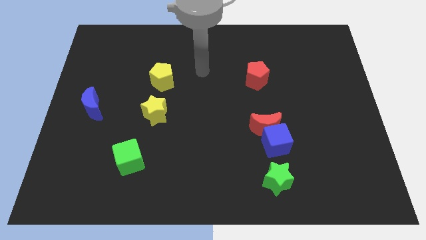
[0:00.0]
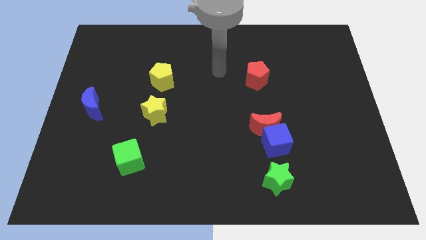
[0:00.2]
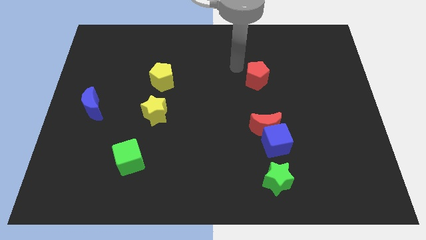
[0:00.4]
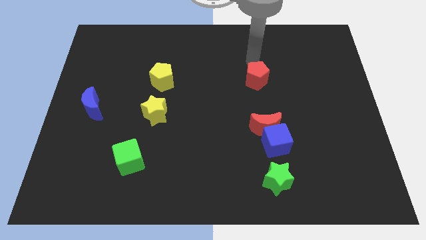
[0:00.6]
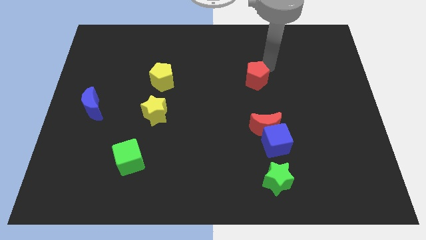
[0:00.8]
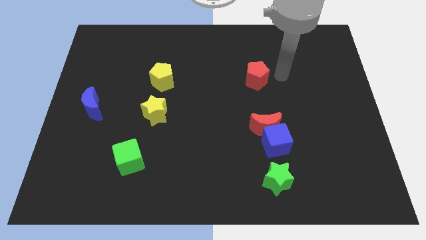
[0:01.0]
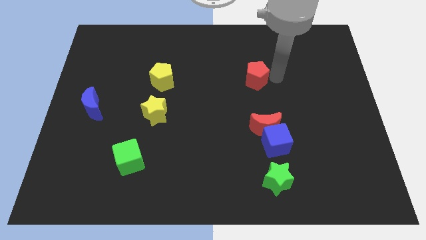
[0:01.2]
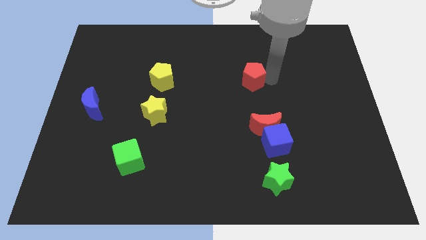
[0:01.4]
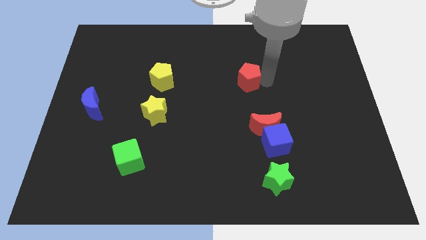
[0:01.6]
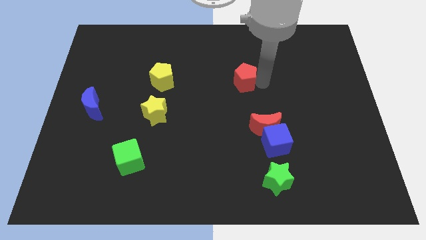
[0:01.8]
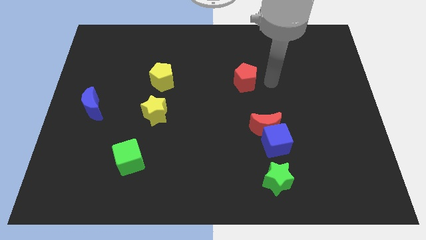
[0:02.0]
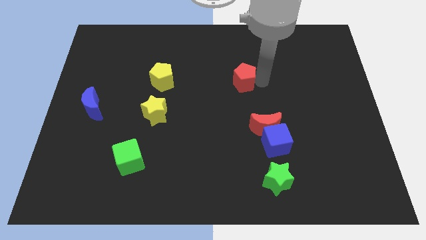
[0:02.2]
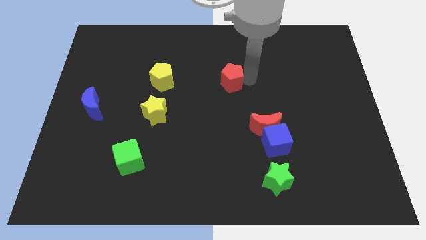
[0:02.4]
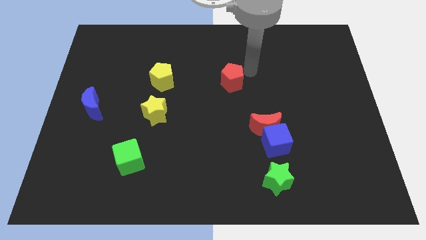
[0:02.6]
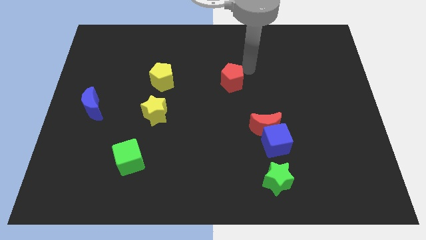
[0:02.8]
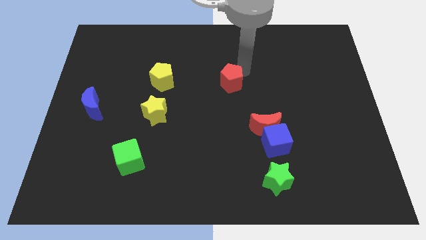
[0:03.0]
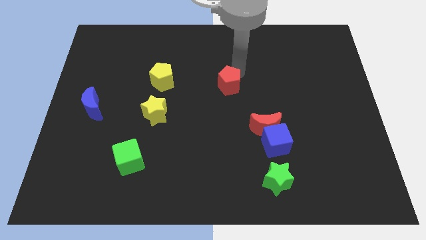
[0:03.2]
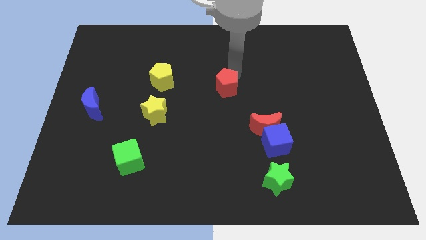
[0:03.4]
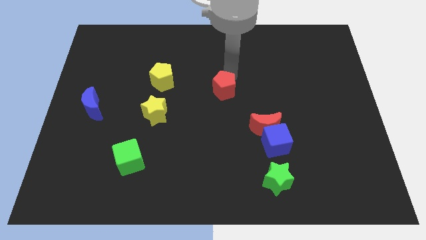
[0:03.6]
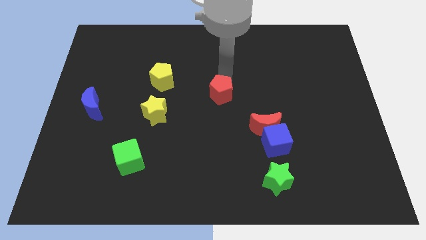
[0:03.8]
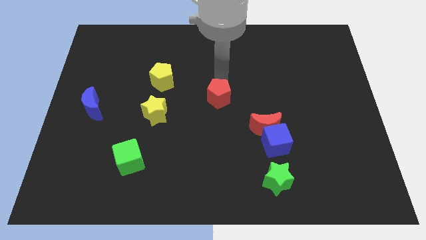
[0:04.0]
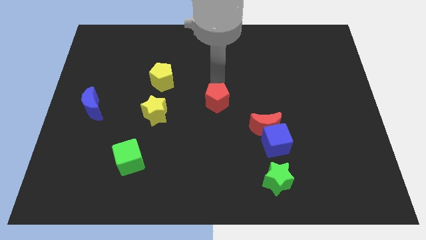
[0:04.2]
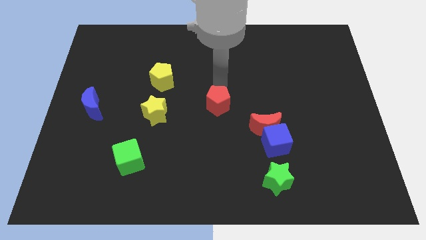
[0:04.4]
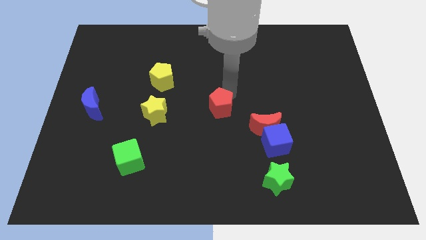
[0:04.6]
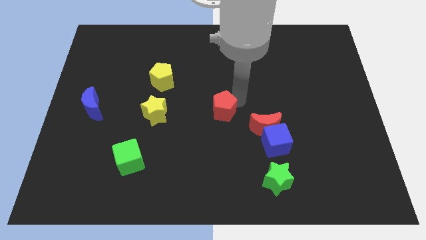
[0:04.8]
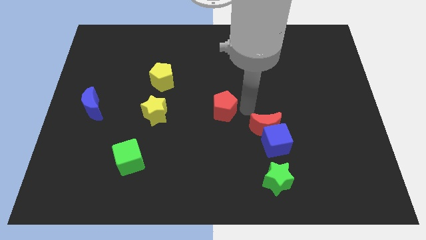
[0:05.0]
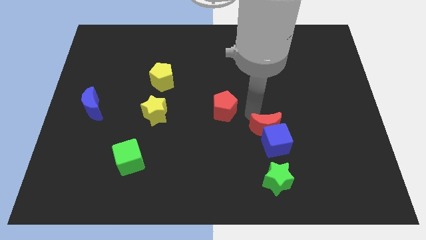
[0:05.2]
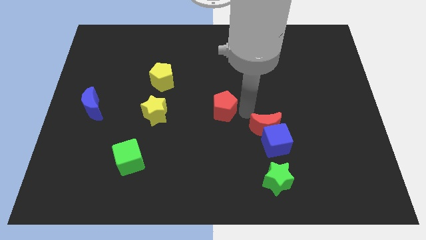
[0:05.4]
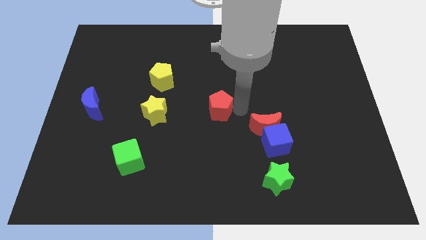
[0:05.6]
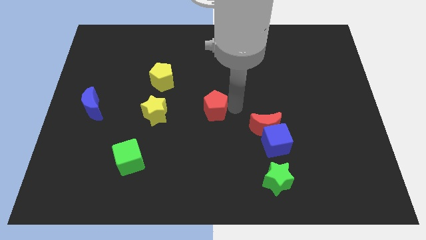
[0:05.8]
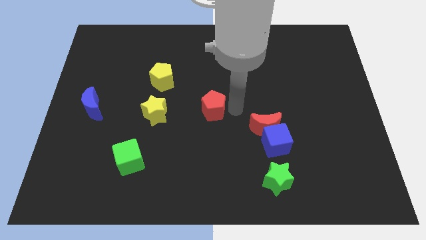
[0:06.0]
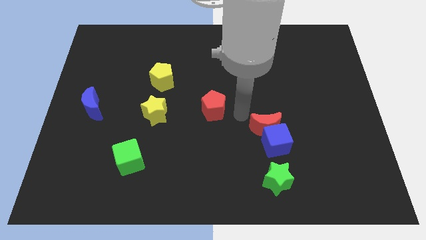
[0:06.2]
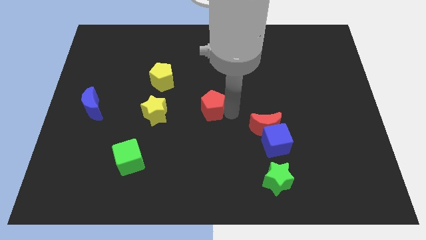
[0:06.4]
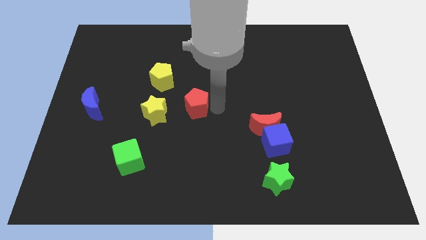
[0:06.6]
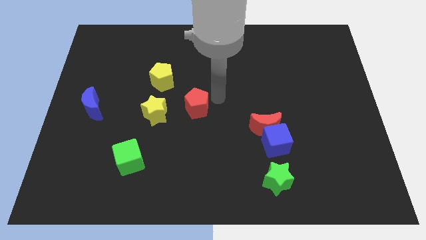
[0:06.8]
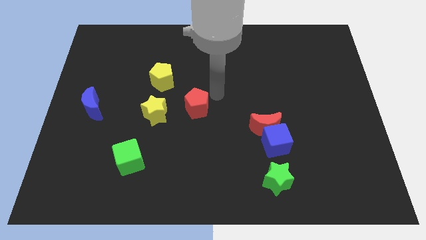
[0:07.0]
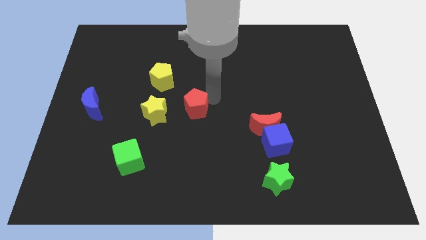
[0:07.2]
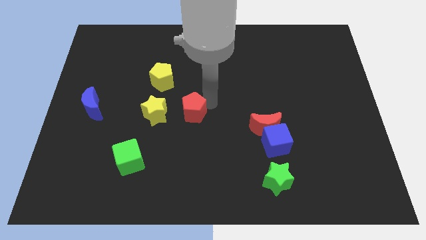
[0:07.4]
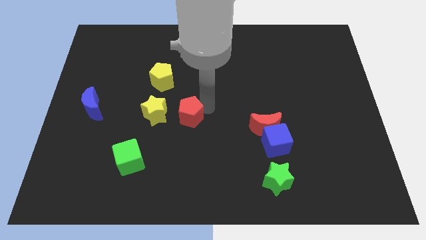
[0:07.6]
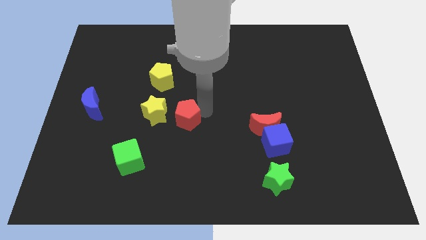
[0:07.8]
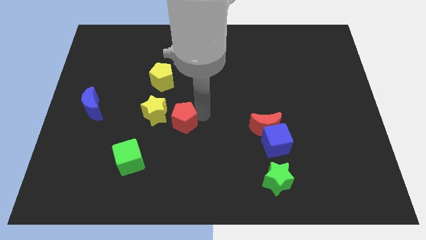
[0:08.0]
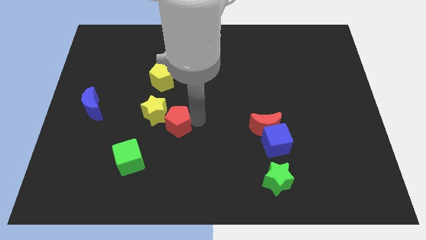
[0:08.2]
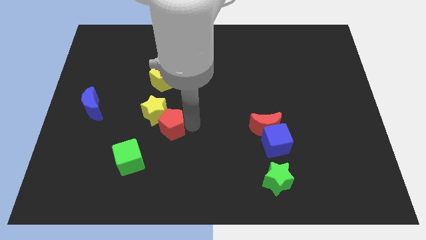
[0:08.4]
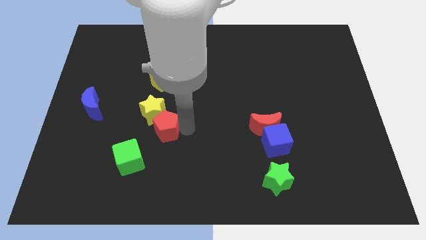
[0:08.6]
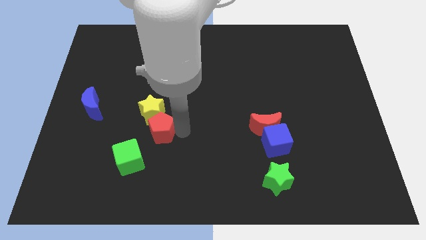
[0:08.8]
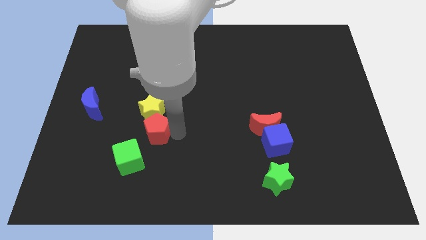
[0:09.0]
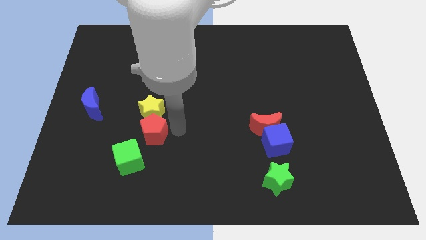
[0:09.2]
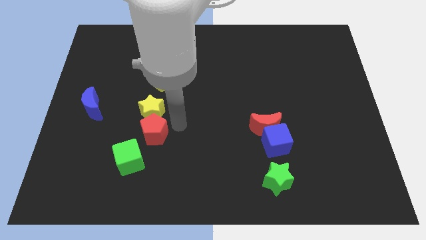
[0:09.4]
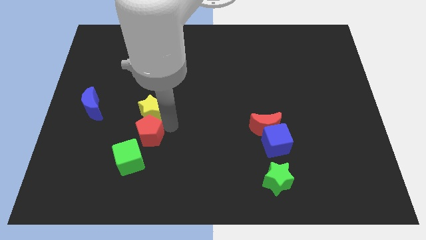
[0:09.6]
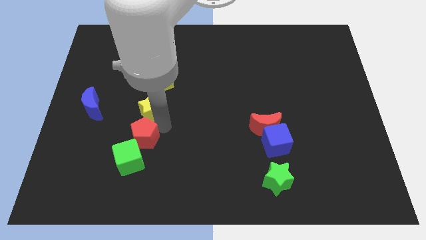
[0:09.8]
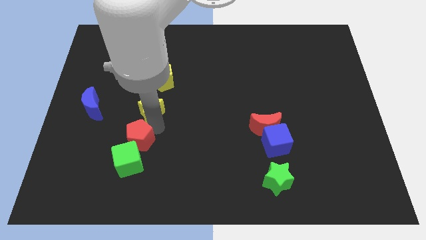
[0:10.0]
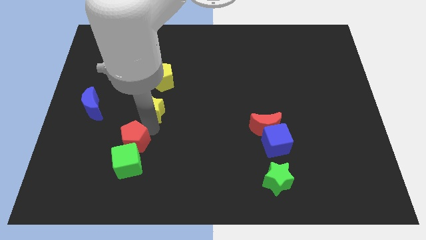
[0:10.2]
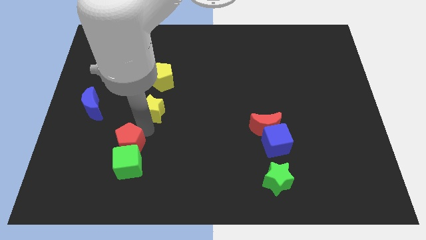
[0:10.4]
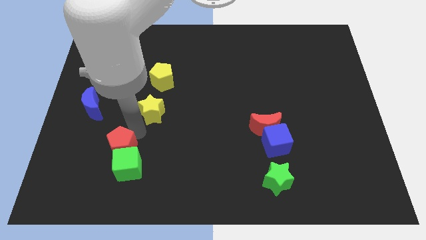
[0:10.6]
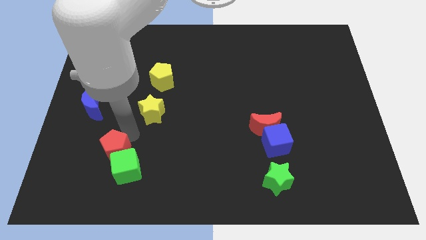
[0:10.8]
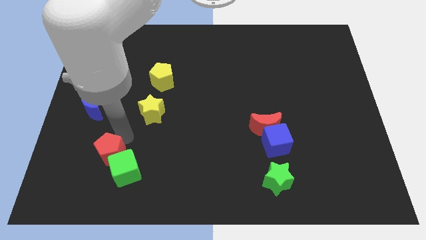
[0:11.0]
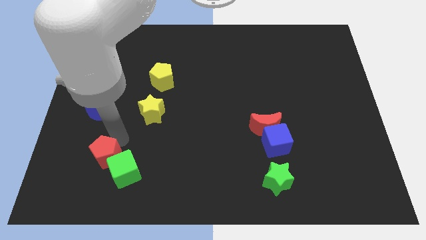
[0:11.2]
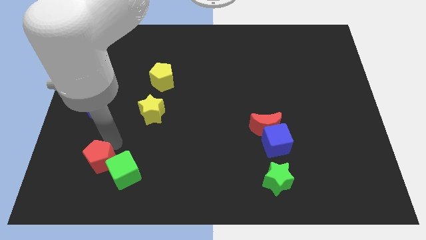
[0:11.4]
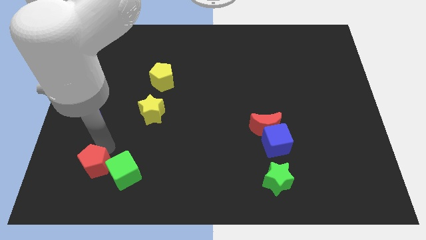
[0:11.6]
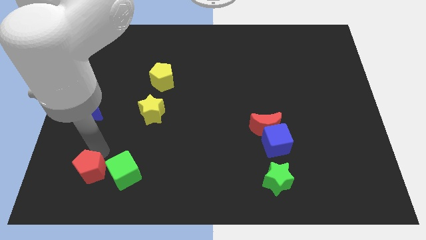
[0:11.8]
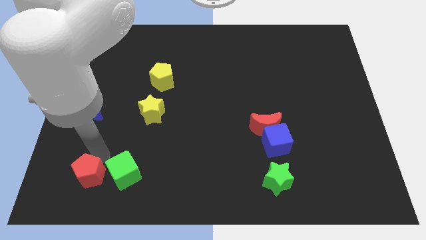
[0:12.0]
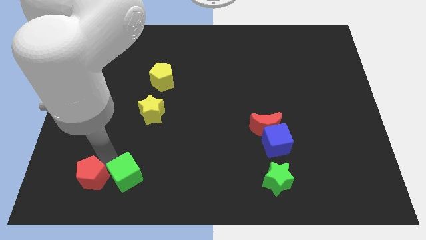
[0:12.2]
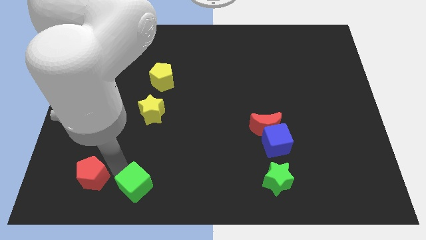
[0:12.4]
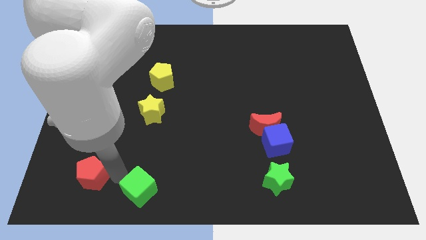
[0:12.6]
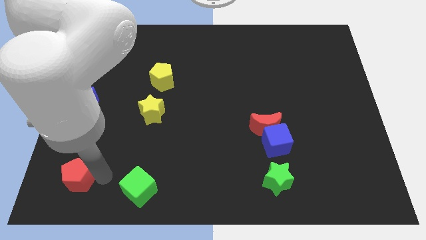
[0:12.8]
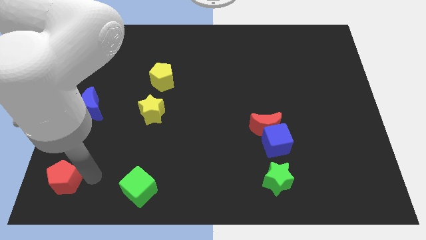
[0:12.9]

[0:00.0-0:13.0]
put the red pentagon to the bottom left of the board

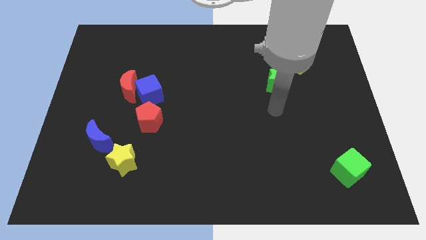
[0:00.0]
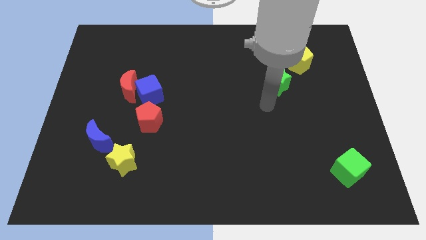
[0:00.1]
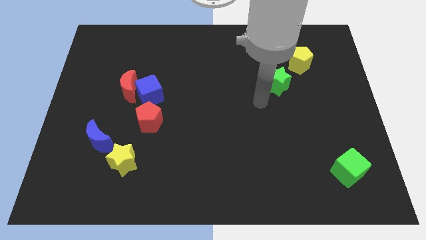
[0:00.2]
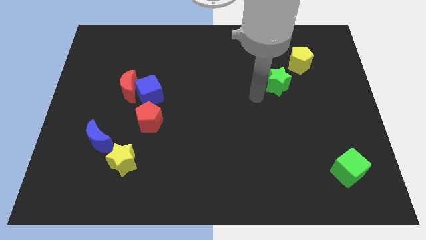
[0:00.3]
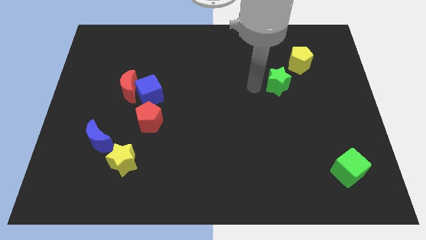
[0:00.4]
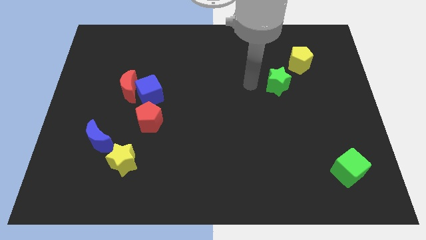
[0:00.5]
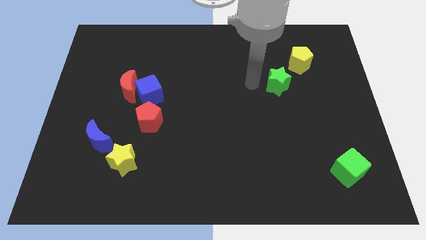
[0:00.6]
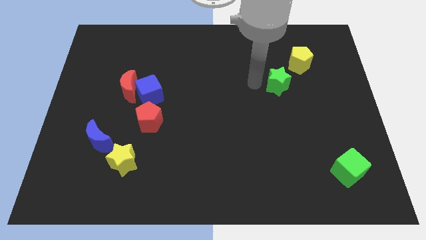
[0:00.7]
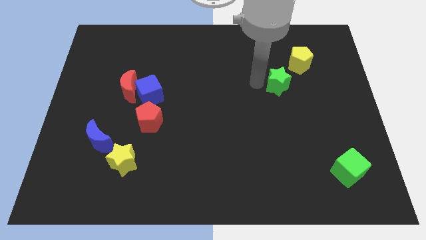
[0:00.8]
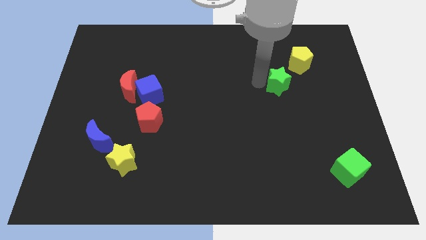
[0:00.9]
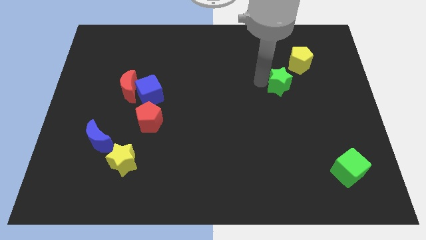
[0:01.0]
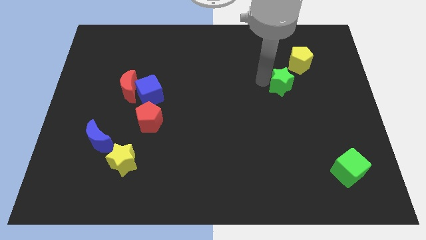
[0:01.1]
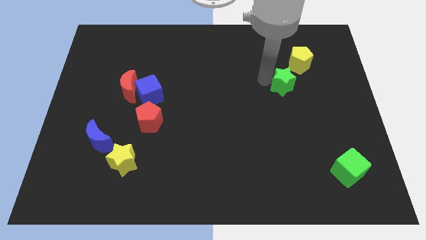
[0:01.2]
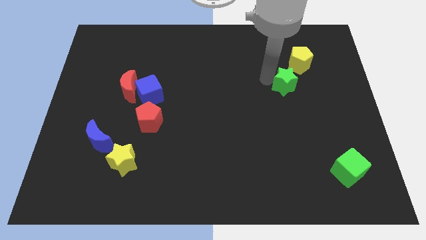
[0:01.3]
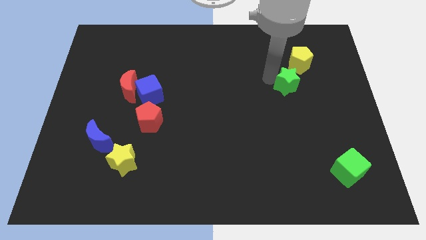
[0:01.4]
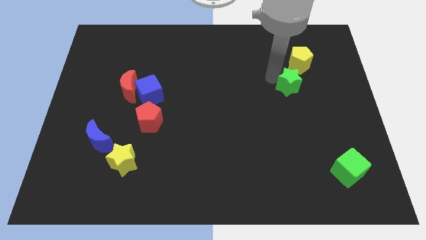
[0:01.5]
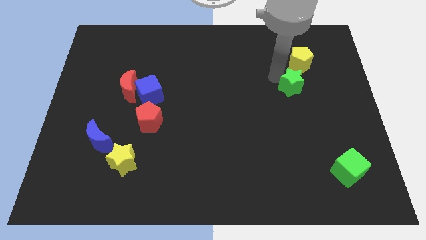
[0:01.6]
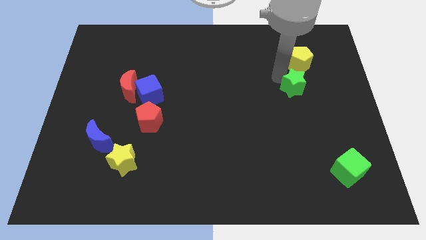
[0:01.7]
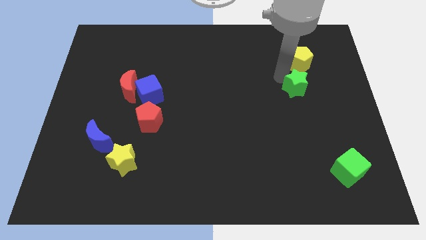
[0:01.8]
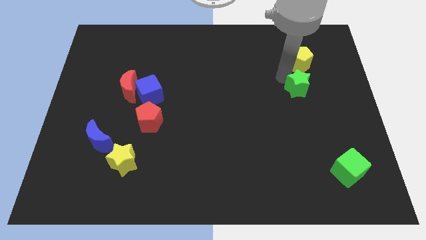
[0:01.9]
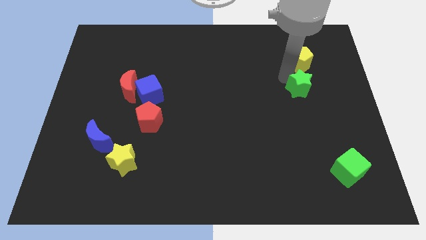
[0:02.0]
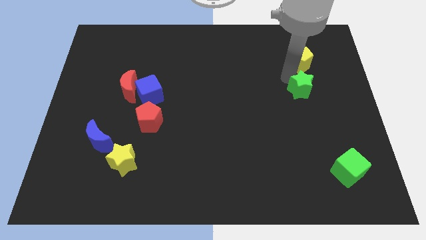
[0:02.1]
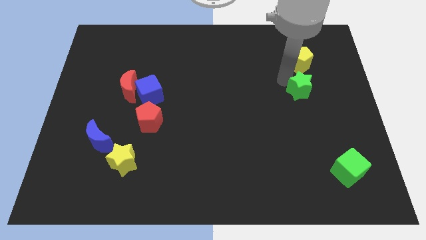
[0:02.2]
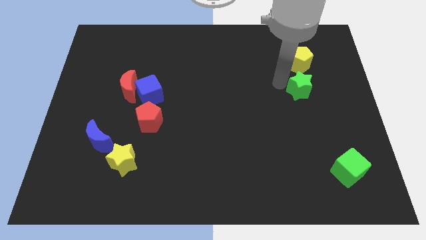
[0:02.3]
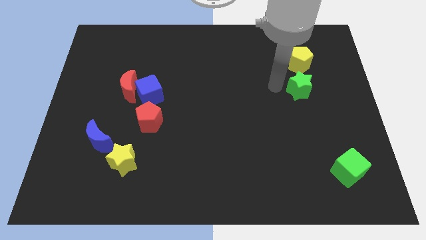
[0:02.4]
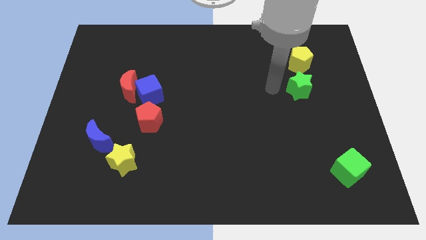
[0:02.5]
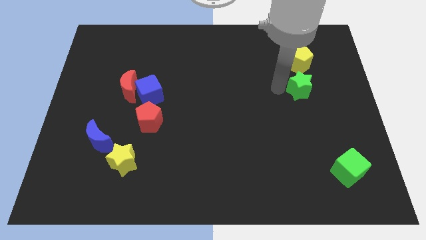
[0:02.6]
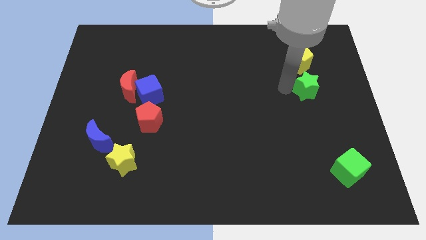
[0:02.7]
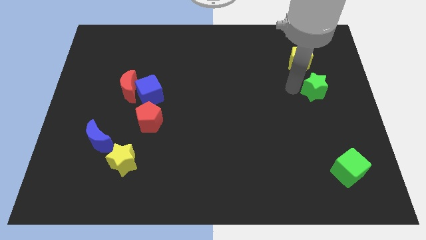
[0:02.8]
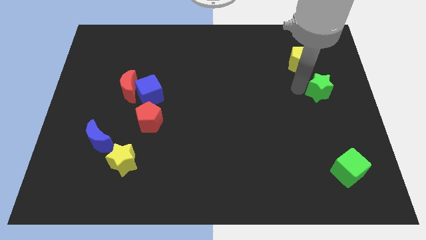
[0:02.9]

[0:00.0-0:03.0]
slide the green star to the center right
